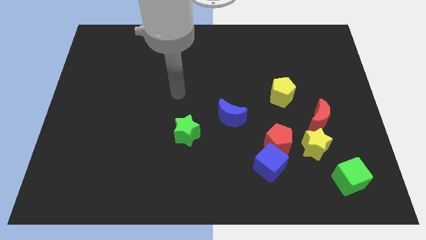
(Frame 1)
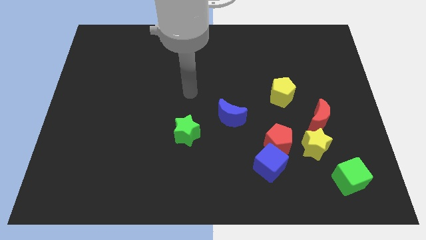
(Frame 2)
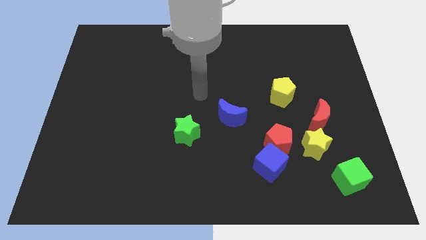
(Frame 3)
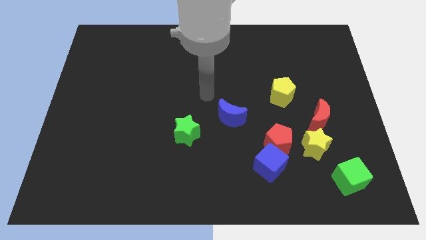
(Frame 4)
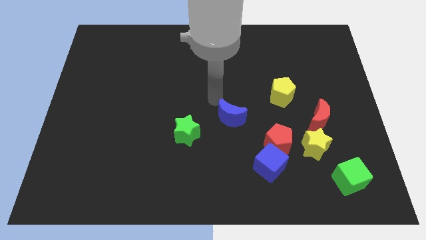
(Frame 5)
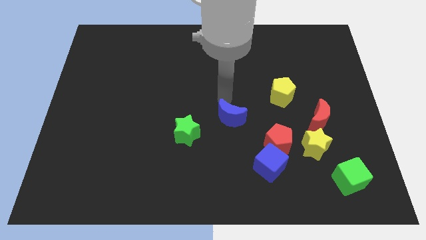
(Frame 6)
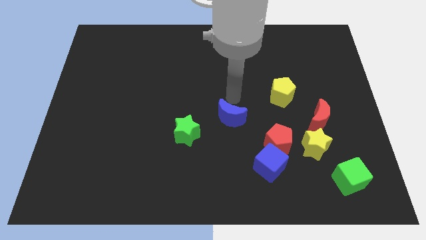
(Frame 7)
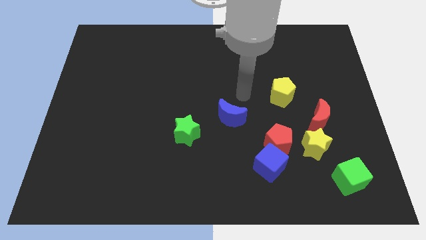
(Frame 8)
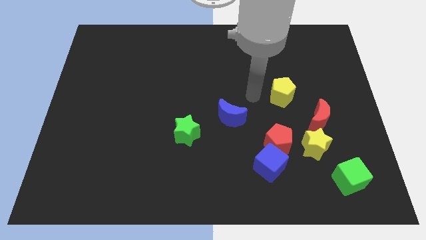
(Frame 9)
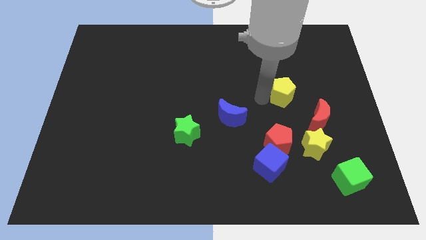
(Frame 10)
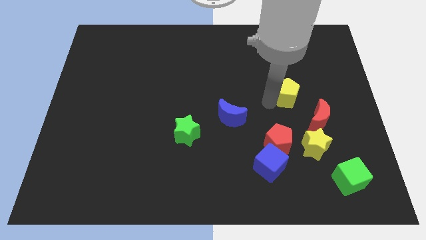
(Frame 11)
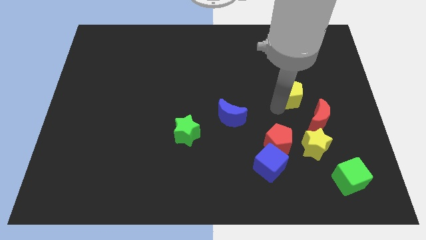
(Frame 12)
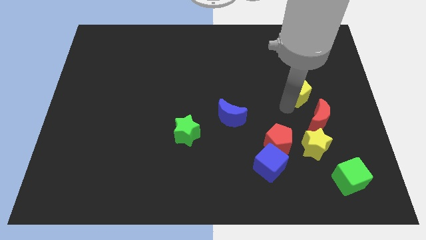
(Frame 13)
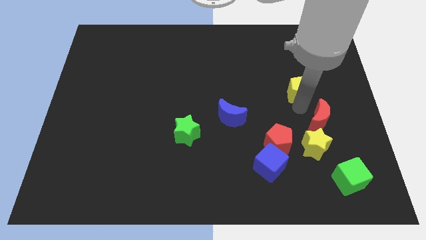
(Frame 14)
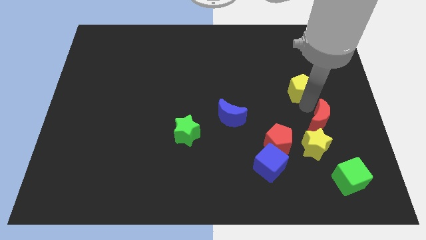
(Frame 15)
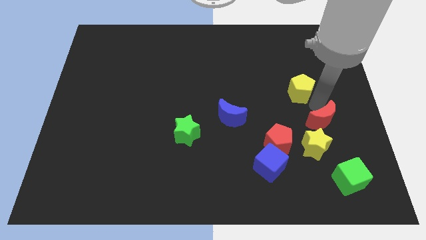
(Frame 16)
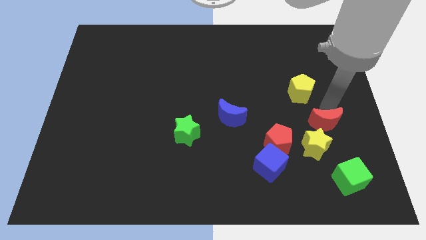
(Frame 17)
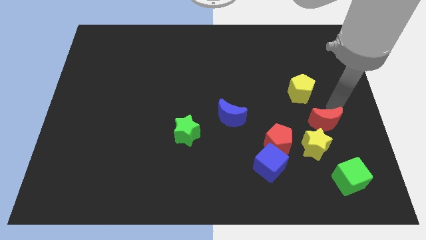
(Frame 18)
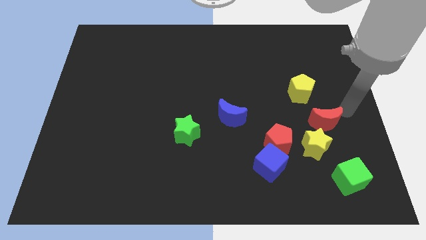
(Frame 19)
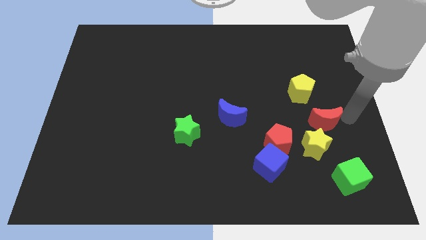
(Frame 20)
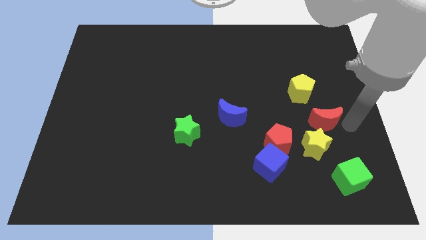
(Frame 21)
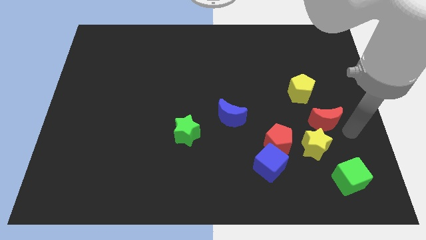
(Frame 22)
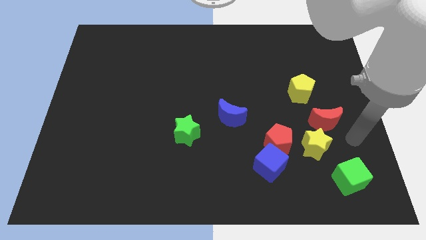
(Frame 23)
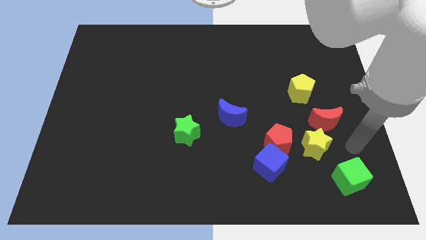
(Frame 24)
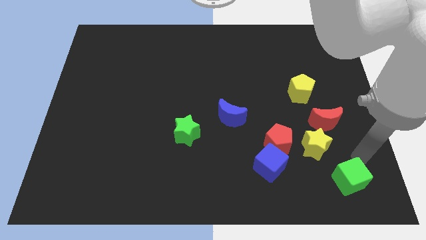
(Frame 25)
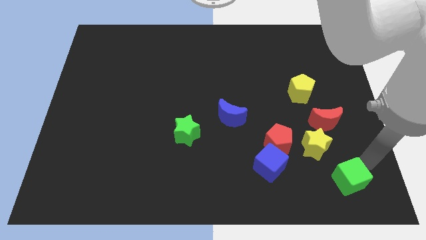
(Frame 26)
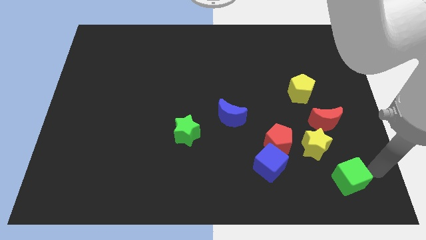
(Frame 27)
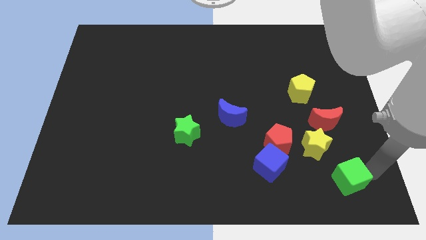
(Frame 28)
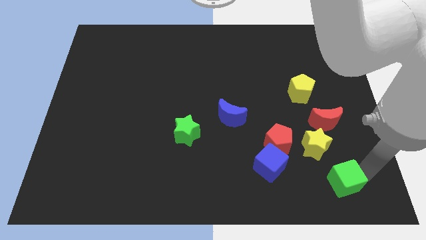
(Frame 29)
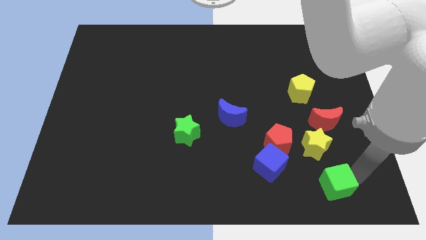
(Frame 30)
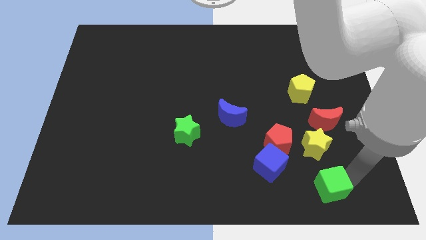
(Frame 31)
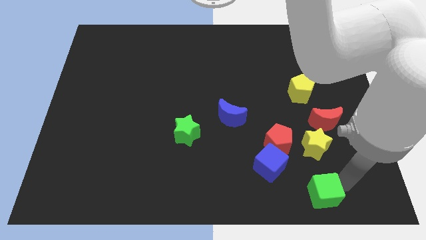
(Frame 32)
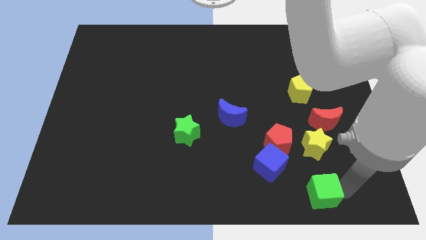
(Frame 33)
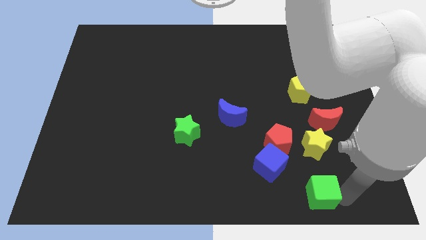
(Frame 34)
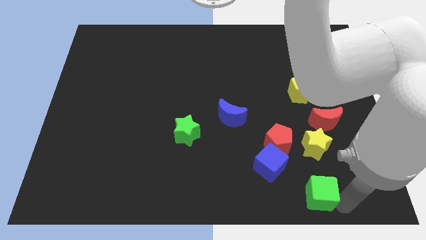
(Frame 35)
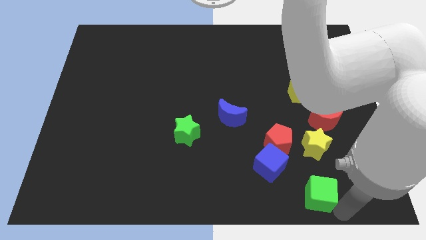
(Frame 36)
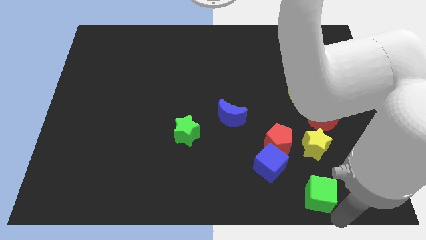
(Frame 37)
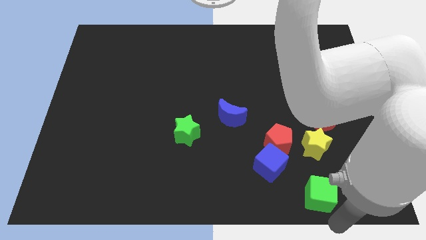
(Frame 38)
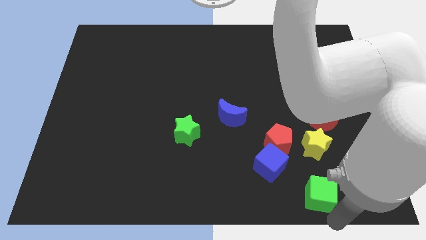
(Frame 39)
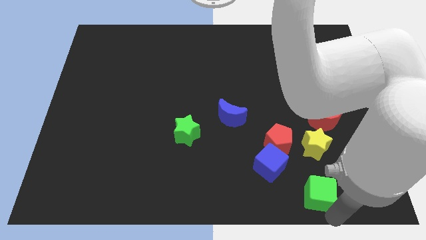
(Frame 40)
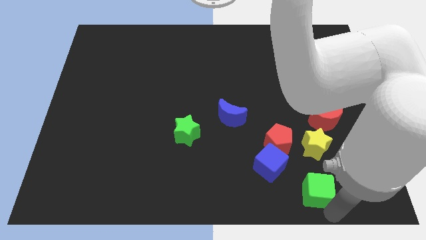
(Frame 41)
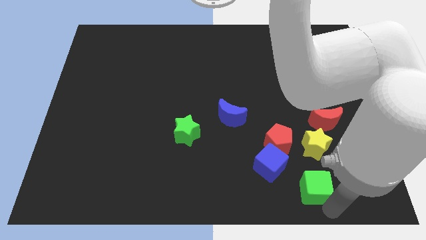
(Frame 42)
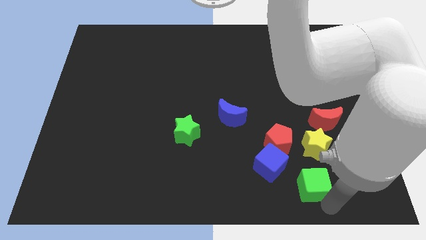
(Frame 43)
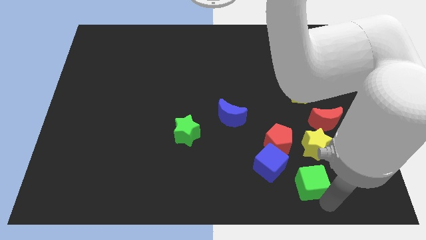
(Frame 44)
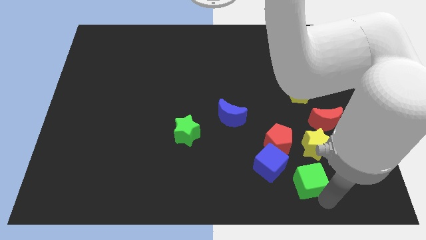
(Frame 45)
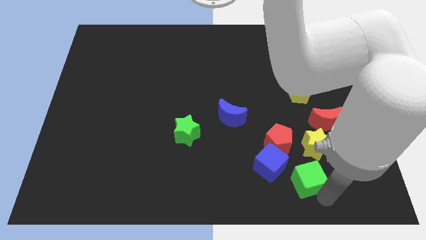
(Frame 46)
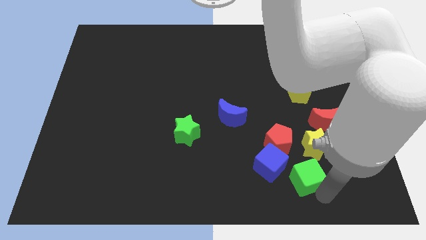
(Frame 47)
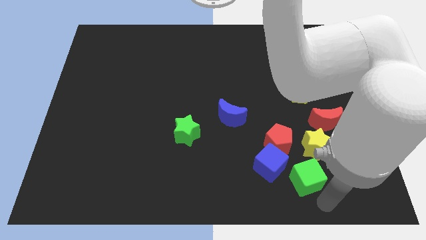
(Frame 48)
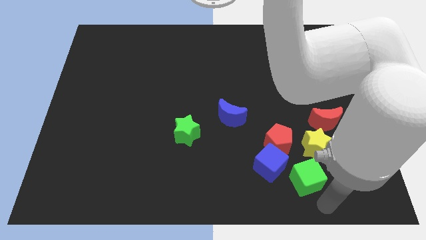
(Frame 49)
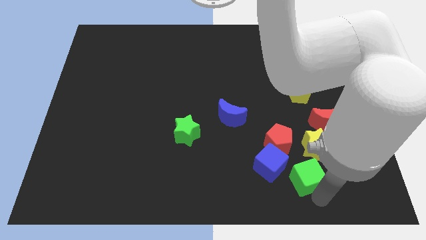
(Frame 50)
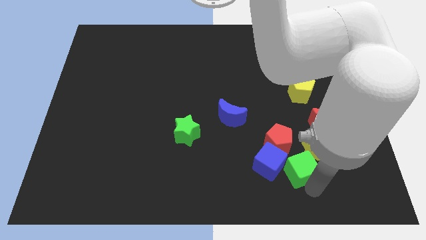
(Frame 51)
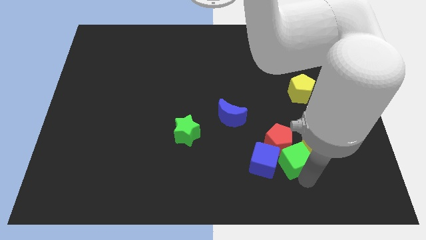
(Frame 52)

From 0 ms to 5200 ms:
put the green cube next to the red pentagon

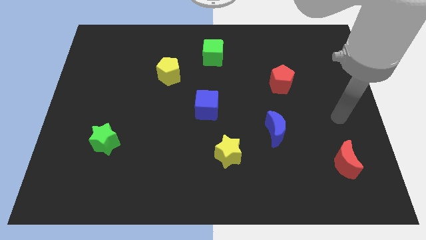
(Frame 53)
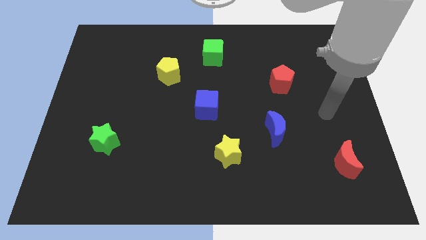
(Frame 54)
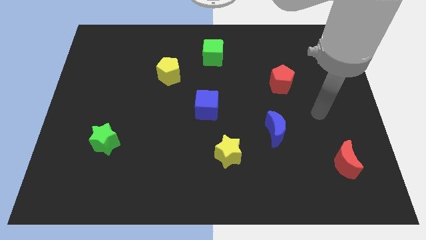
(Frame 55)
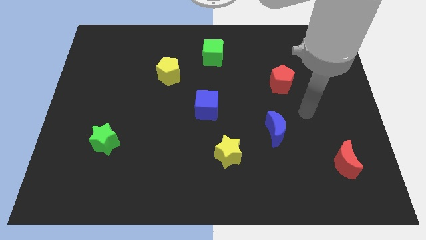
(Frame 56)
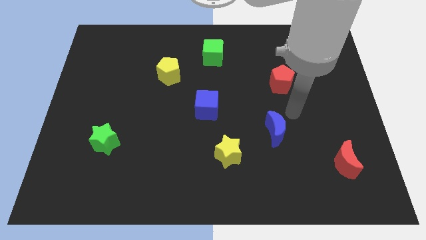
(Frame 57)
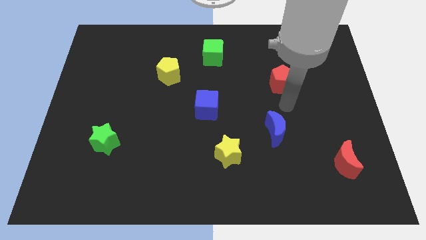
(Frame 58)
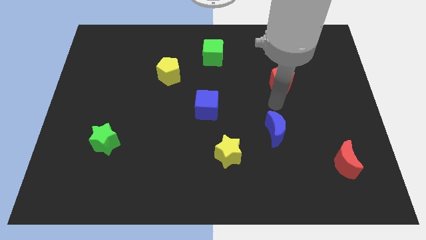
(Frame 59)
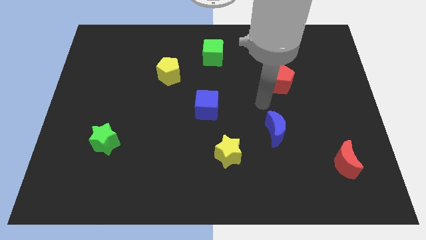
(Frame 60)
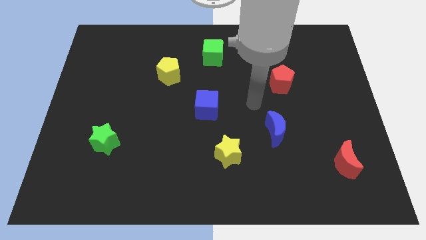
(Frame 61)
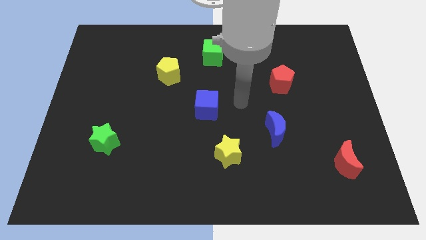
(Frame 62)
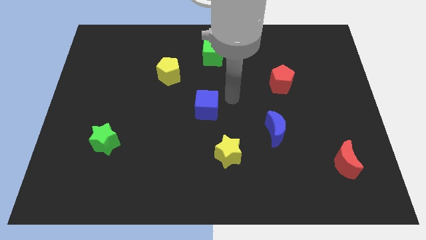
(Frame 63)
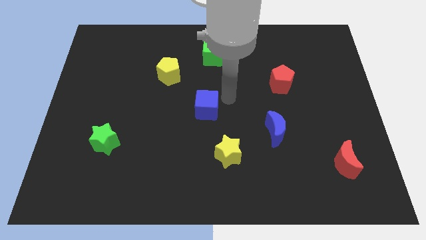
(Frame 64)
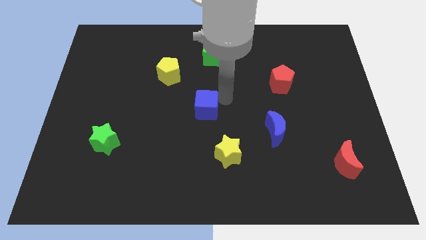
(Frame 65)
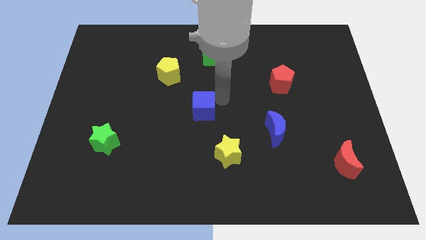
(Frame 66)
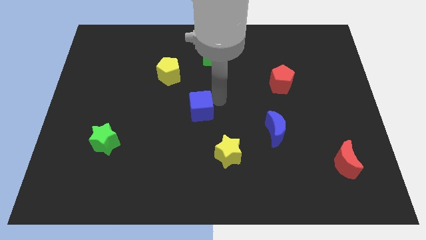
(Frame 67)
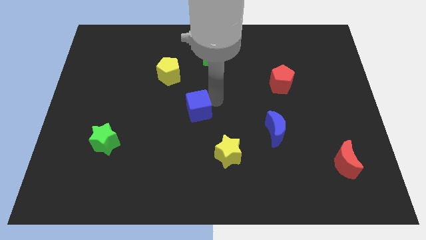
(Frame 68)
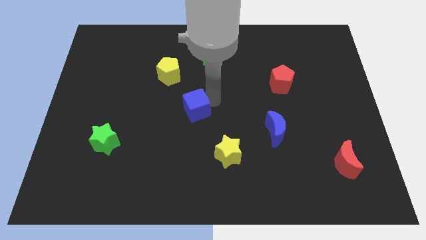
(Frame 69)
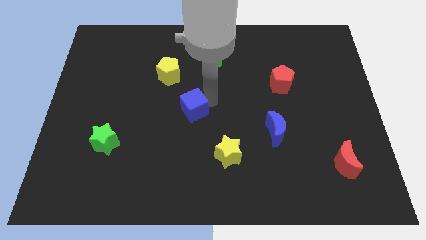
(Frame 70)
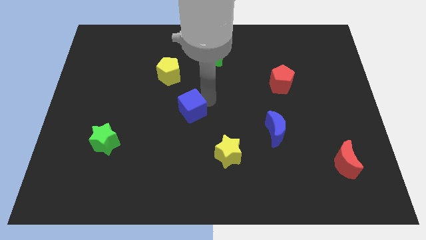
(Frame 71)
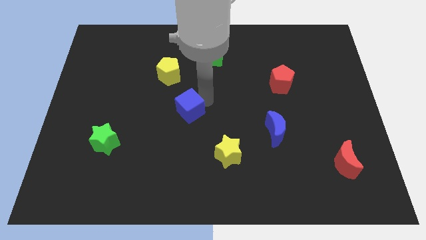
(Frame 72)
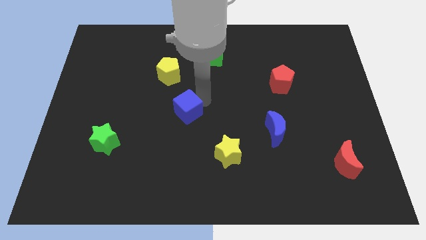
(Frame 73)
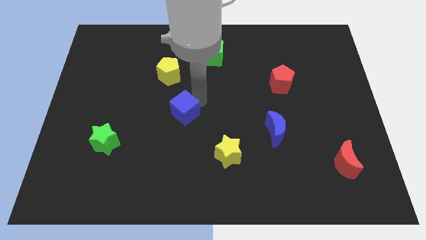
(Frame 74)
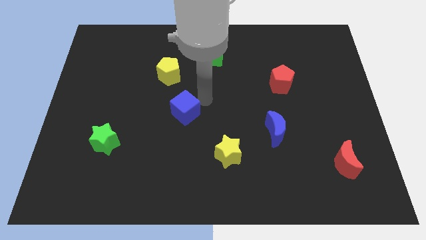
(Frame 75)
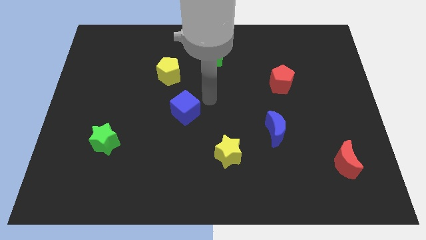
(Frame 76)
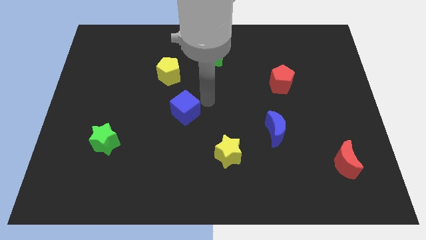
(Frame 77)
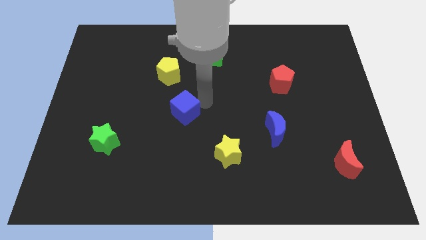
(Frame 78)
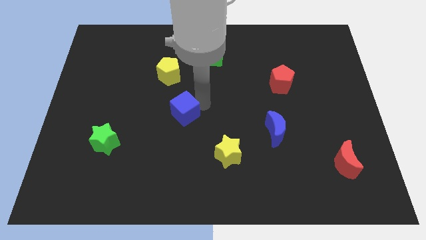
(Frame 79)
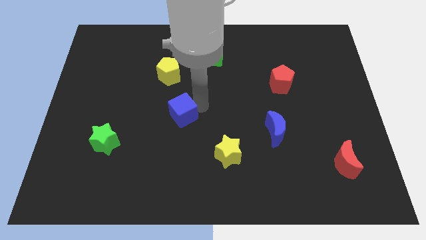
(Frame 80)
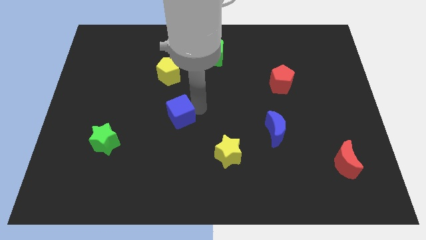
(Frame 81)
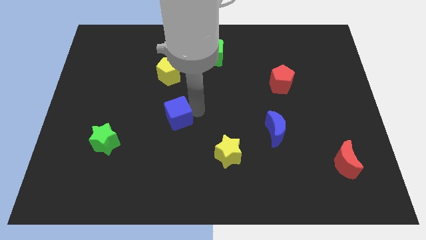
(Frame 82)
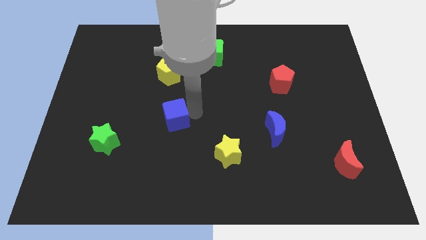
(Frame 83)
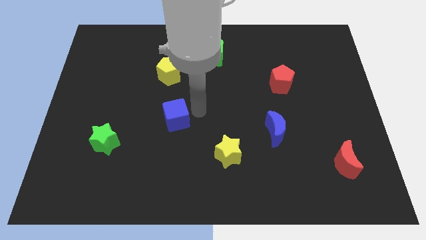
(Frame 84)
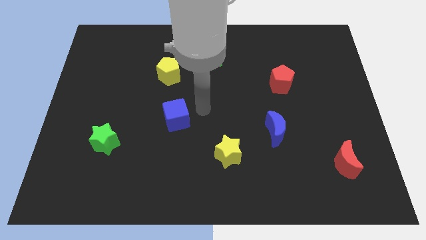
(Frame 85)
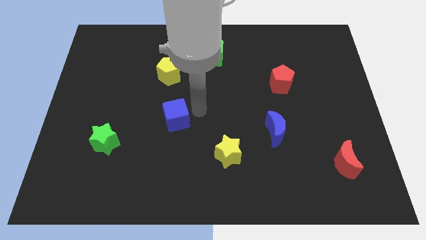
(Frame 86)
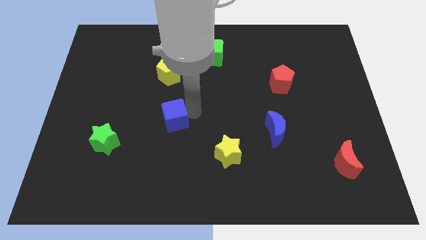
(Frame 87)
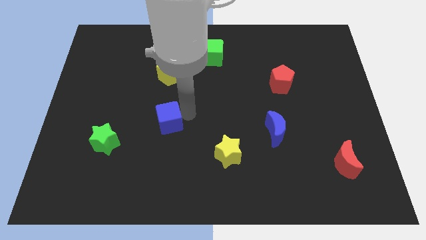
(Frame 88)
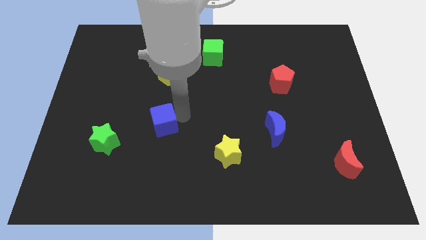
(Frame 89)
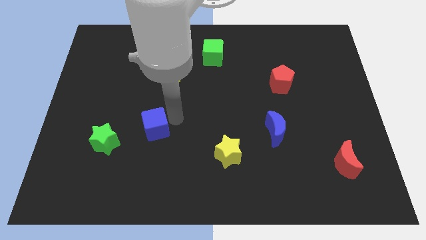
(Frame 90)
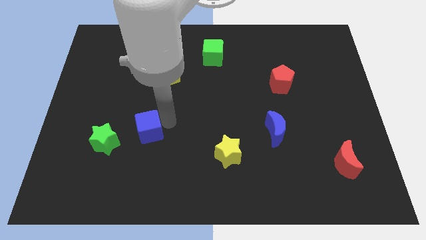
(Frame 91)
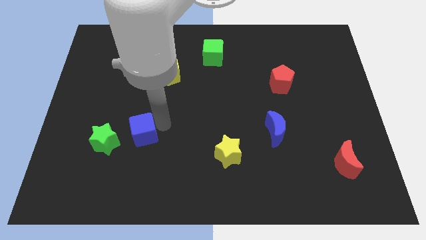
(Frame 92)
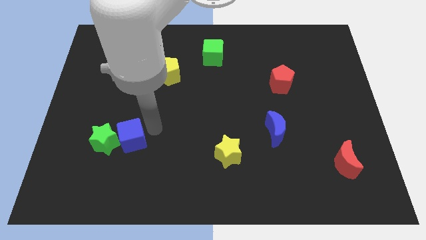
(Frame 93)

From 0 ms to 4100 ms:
move the blue cube towards the green star
